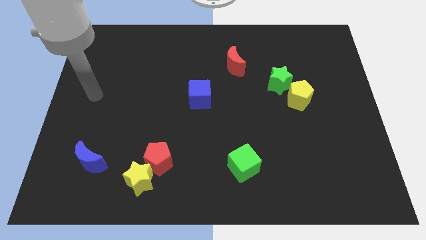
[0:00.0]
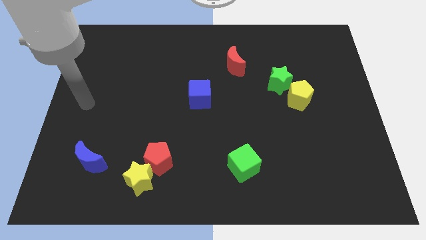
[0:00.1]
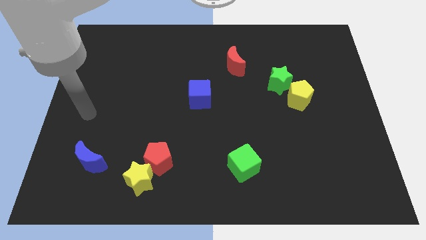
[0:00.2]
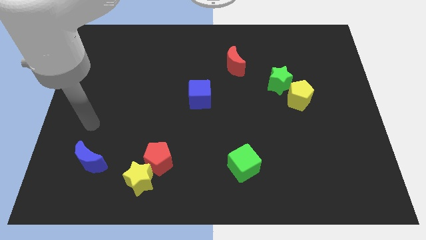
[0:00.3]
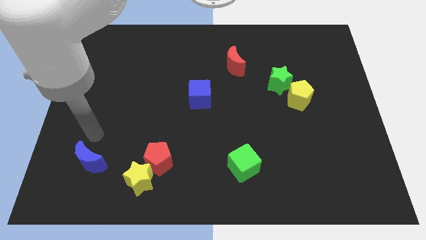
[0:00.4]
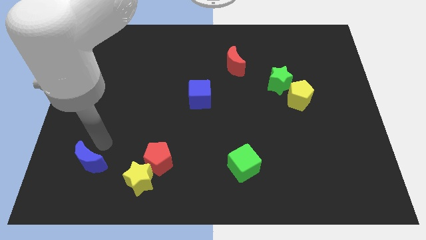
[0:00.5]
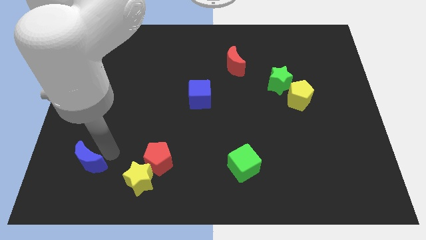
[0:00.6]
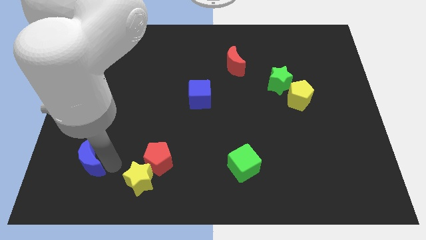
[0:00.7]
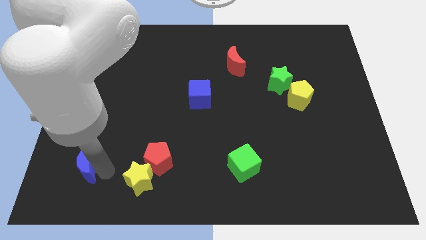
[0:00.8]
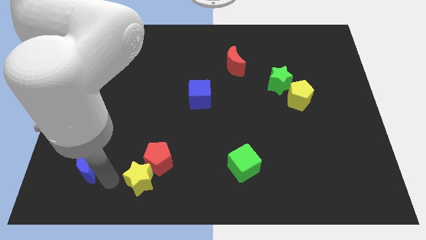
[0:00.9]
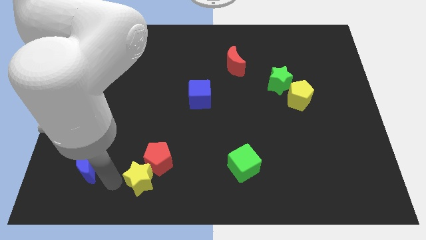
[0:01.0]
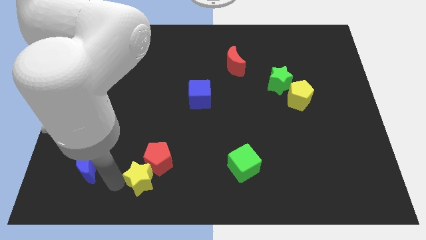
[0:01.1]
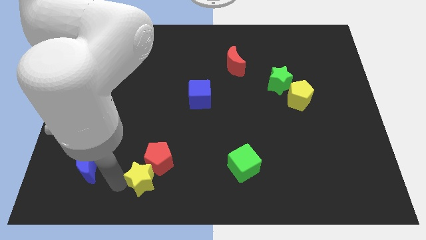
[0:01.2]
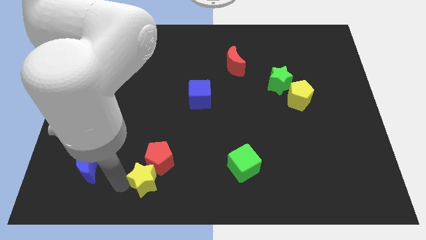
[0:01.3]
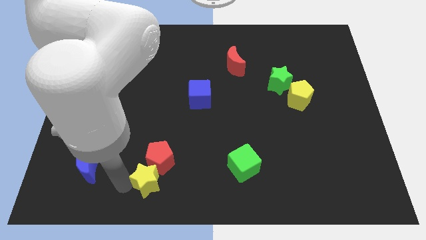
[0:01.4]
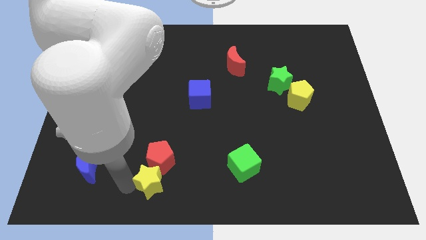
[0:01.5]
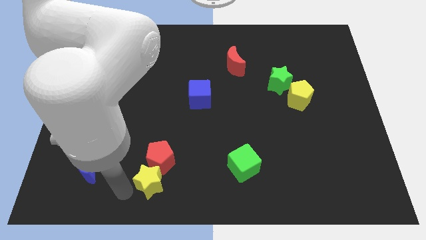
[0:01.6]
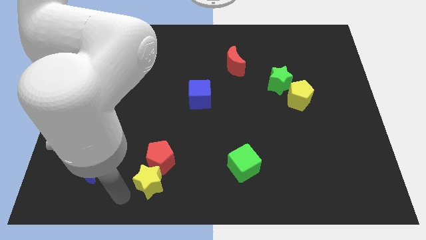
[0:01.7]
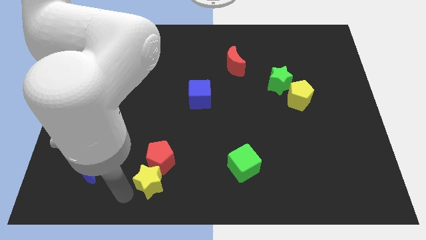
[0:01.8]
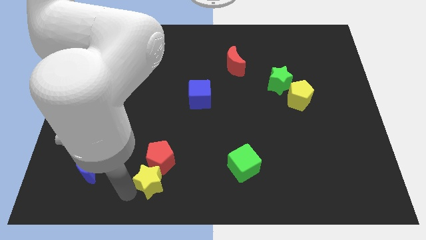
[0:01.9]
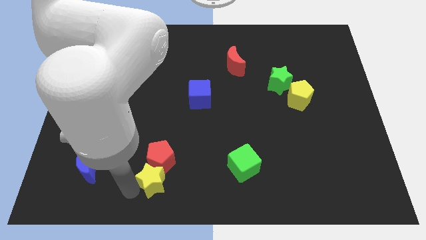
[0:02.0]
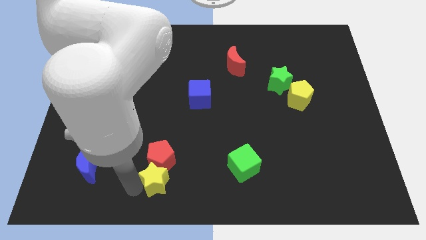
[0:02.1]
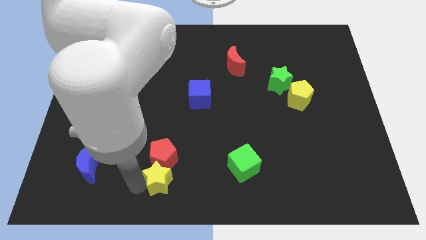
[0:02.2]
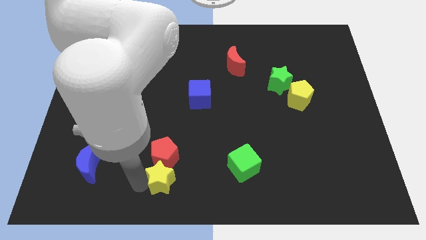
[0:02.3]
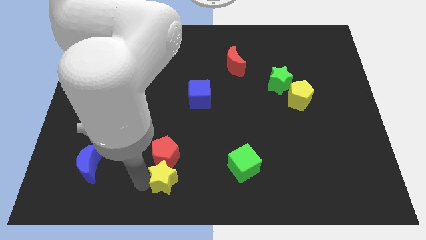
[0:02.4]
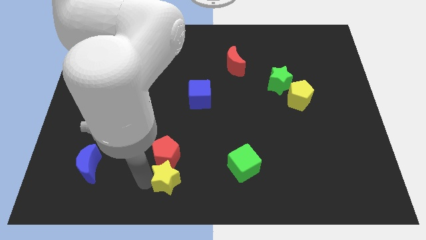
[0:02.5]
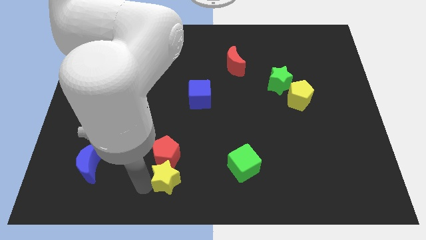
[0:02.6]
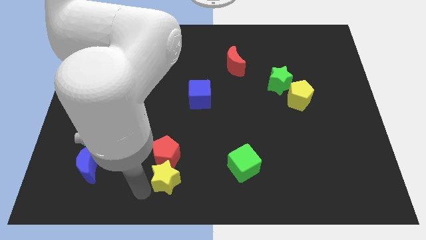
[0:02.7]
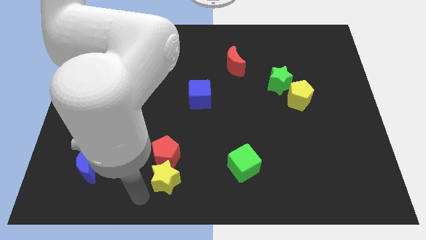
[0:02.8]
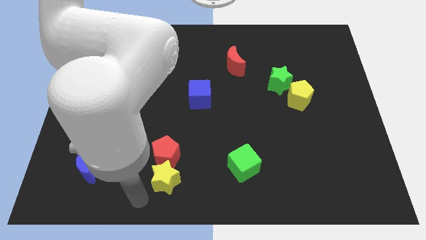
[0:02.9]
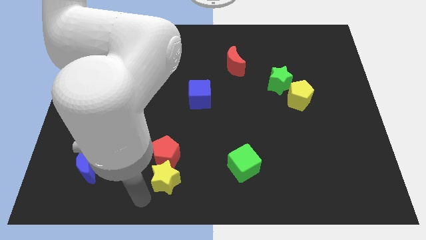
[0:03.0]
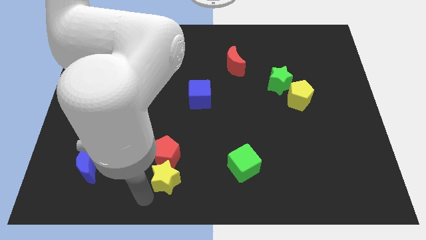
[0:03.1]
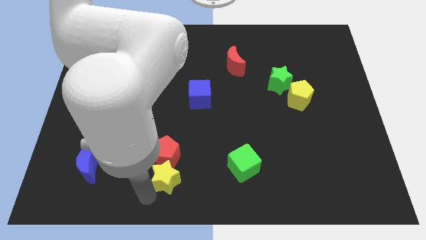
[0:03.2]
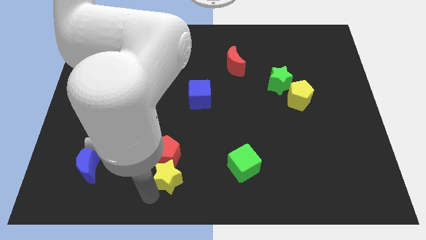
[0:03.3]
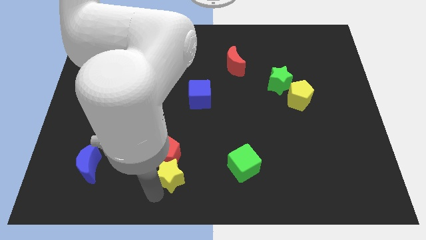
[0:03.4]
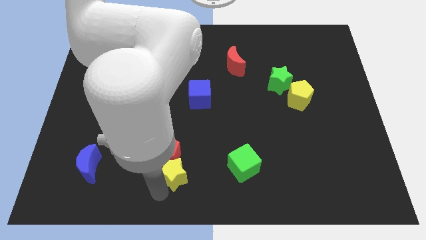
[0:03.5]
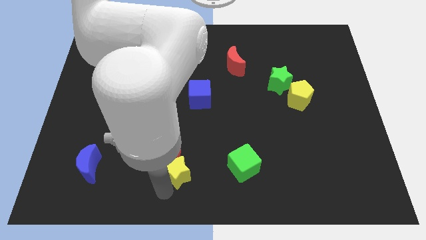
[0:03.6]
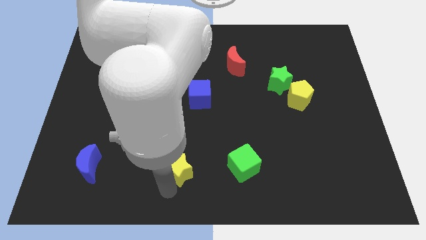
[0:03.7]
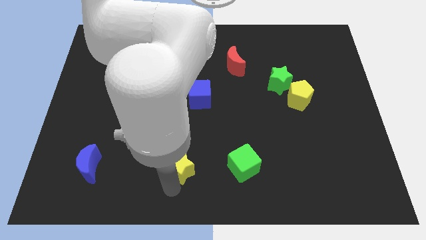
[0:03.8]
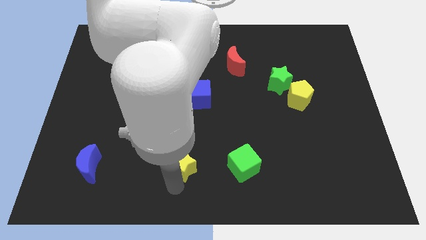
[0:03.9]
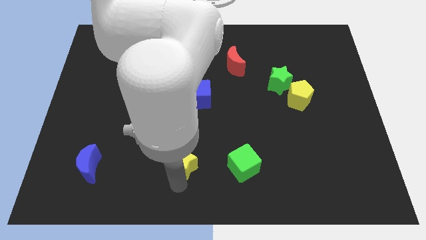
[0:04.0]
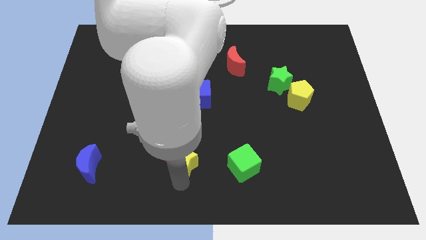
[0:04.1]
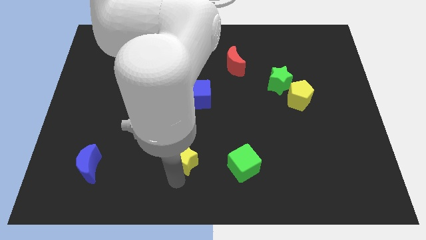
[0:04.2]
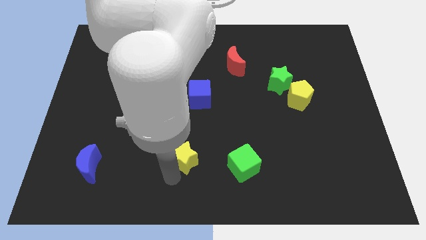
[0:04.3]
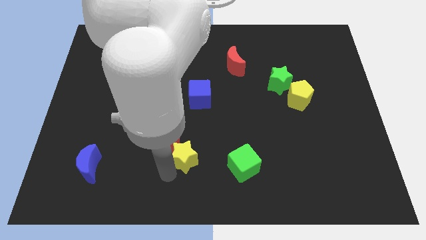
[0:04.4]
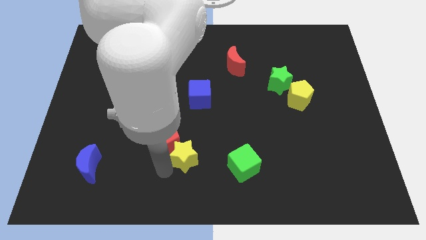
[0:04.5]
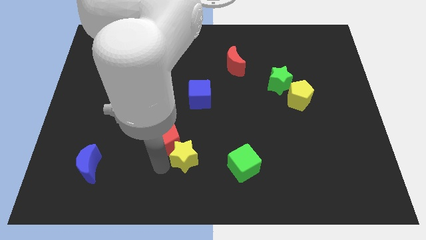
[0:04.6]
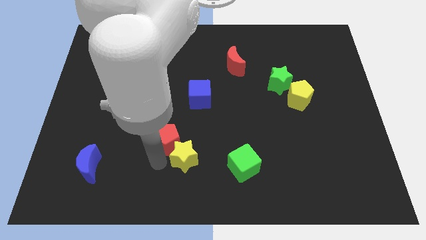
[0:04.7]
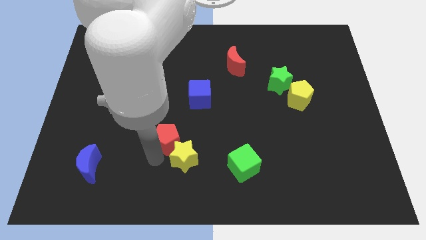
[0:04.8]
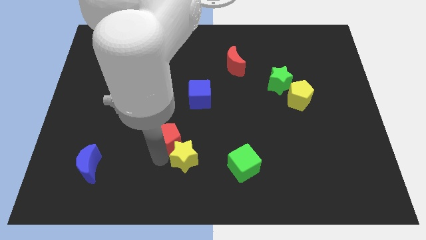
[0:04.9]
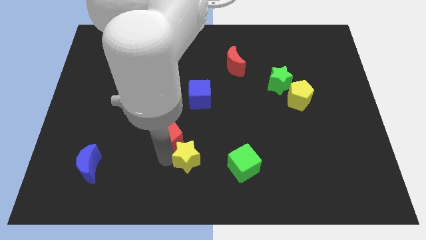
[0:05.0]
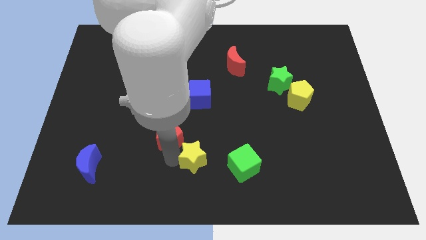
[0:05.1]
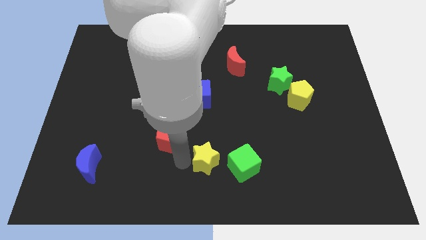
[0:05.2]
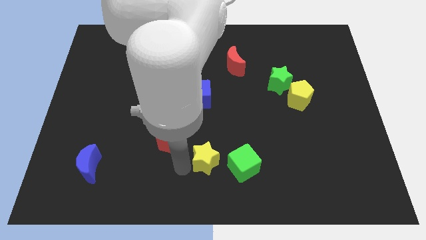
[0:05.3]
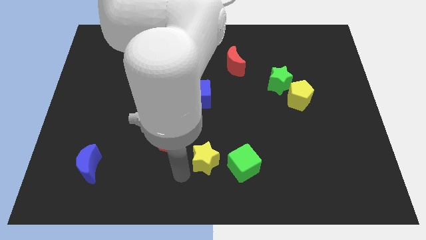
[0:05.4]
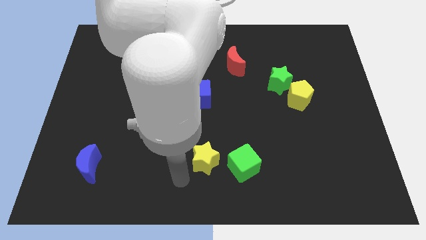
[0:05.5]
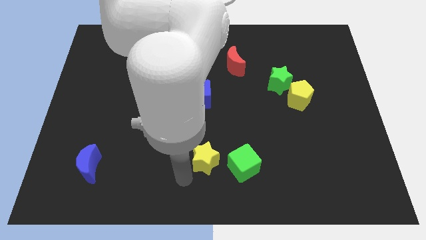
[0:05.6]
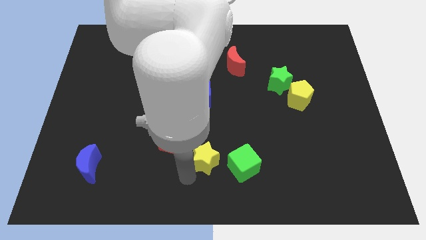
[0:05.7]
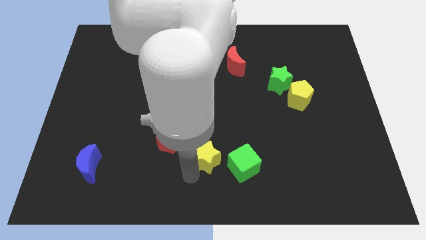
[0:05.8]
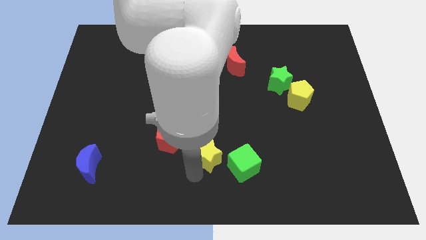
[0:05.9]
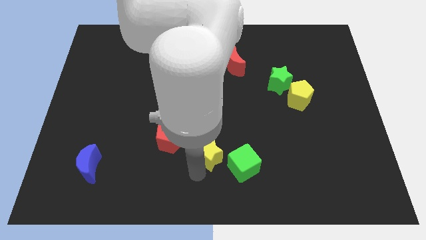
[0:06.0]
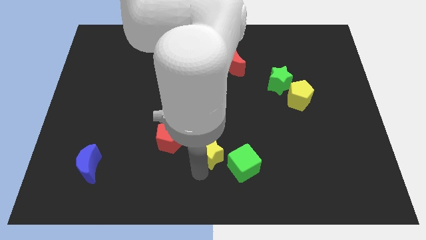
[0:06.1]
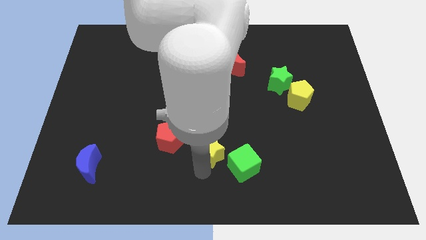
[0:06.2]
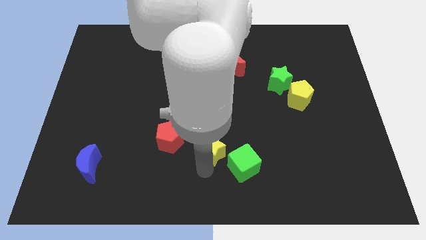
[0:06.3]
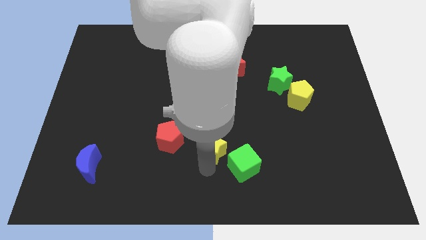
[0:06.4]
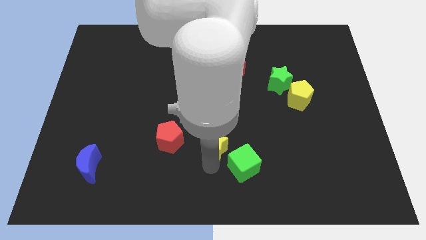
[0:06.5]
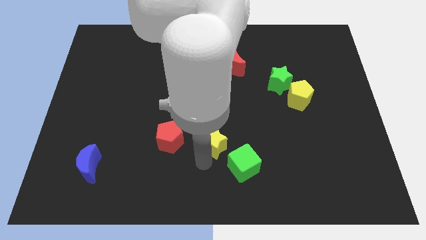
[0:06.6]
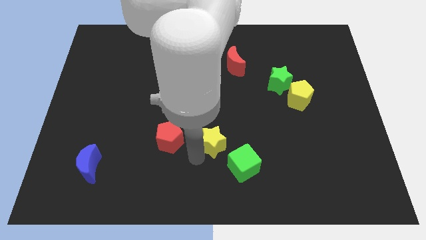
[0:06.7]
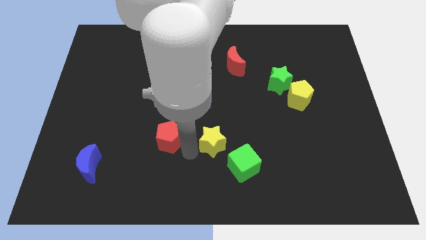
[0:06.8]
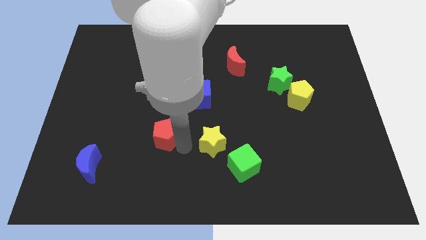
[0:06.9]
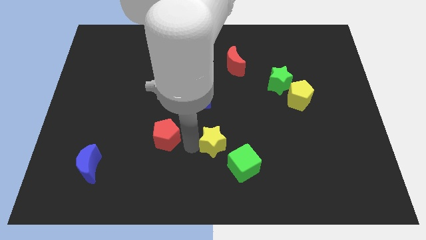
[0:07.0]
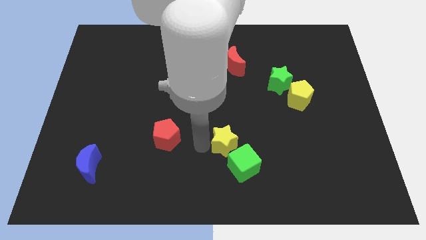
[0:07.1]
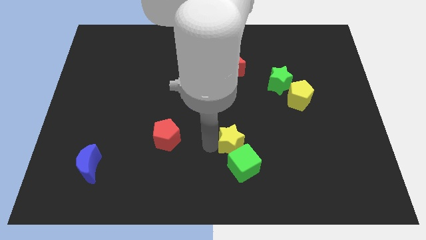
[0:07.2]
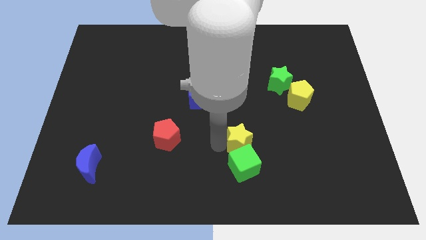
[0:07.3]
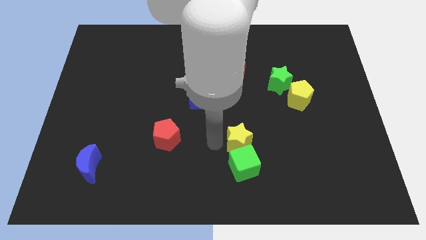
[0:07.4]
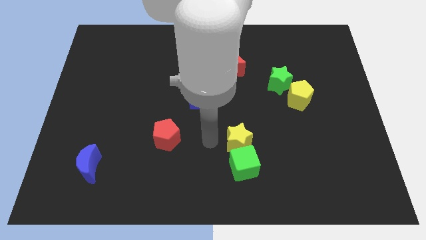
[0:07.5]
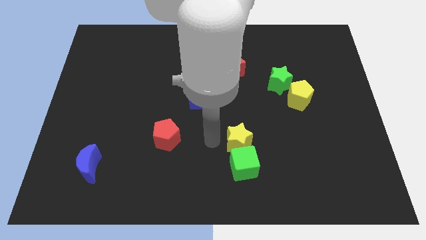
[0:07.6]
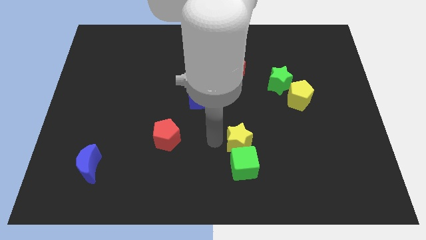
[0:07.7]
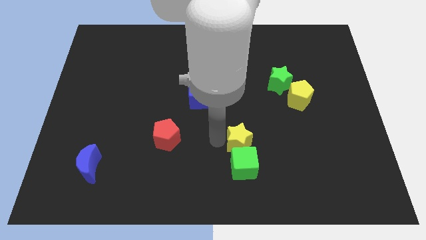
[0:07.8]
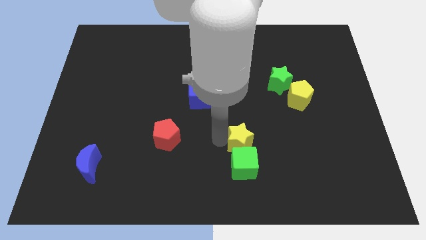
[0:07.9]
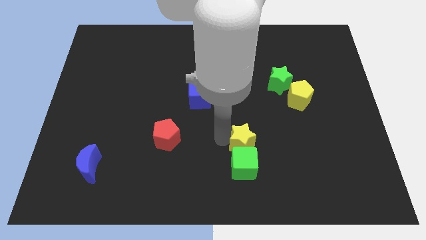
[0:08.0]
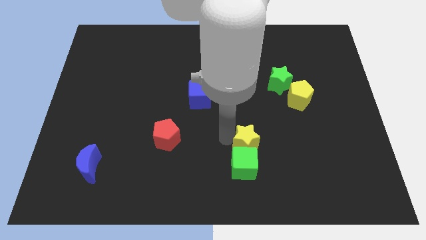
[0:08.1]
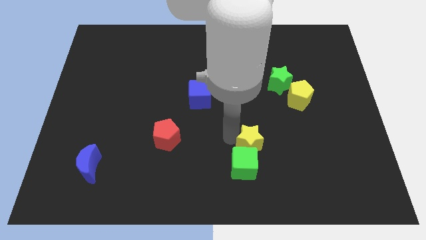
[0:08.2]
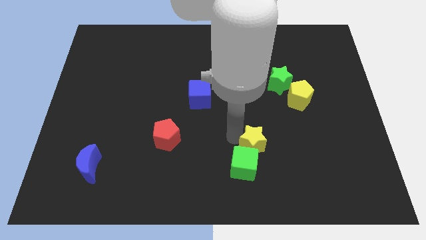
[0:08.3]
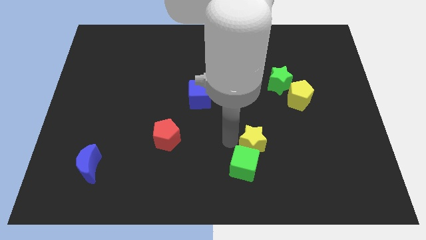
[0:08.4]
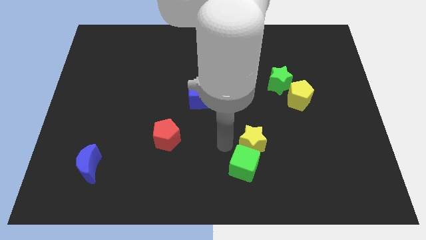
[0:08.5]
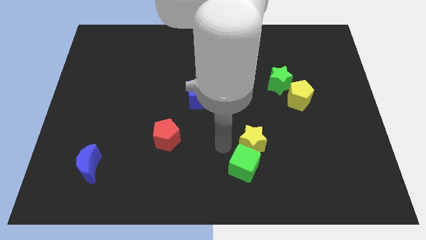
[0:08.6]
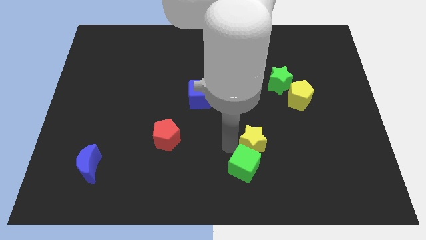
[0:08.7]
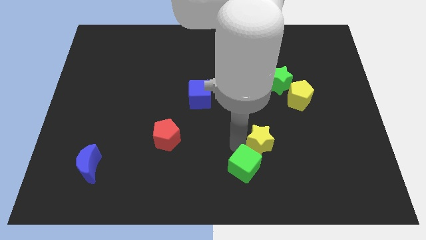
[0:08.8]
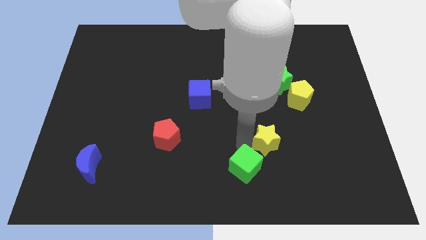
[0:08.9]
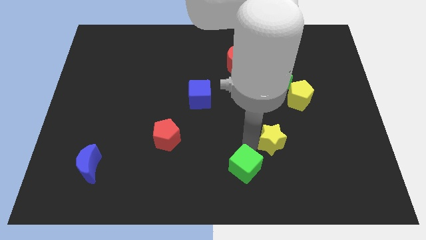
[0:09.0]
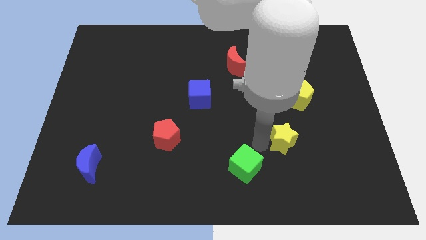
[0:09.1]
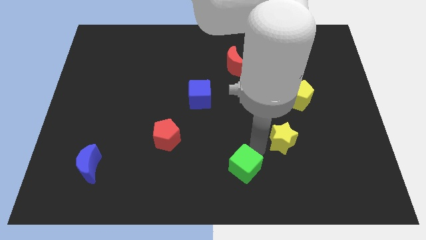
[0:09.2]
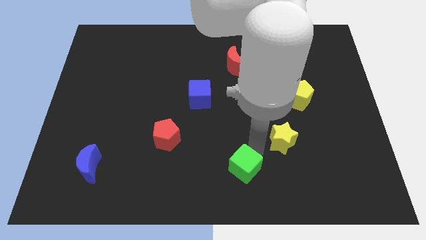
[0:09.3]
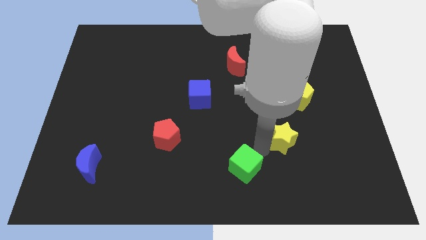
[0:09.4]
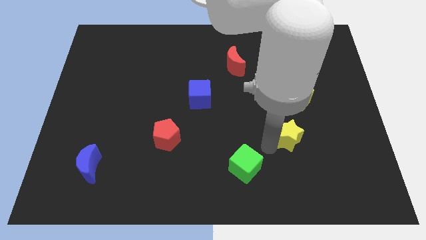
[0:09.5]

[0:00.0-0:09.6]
move the yellow star to the bottom side of the yellow pentagon
